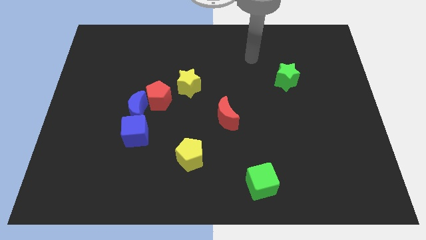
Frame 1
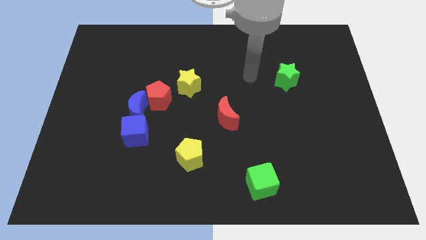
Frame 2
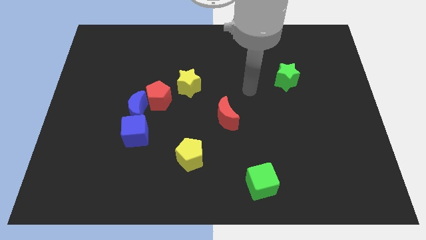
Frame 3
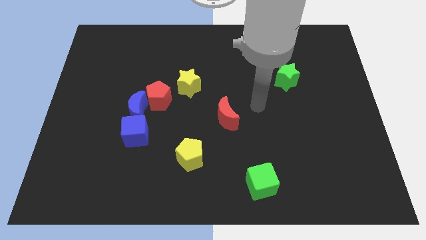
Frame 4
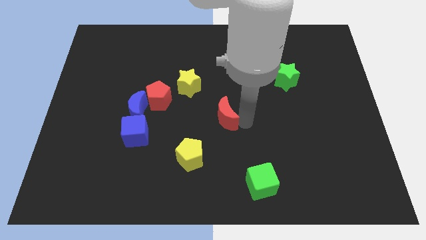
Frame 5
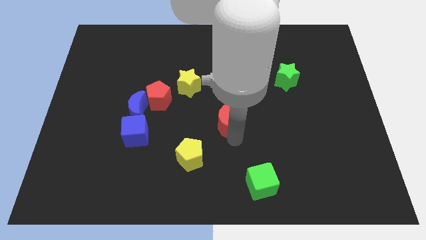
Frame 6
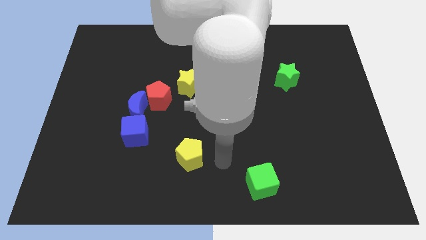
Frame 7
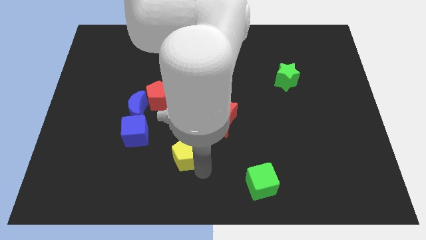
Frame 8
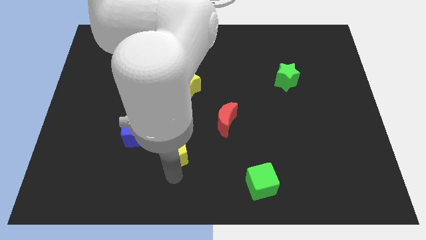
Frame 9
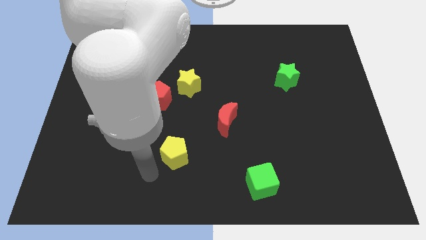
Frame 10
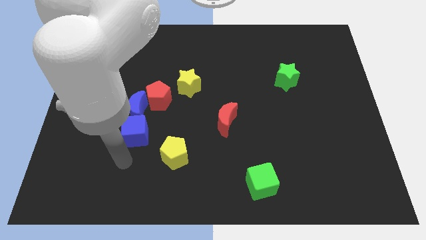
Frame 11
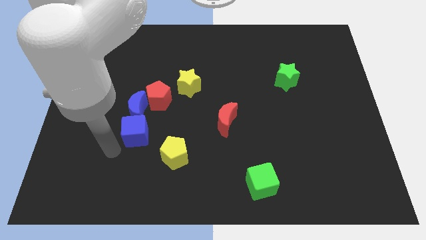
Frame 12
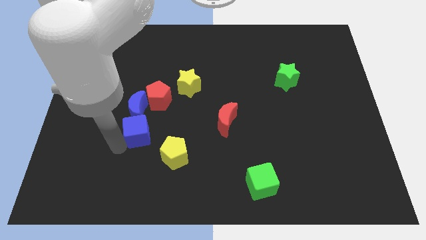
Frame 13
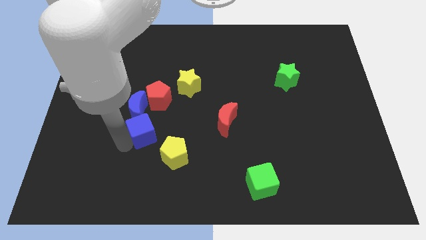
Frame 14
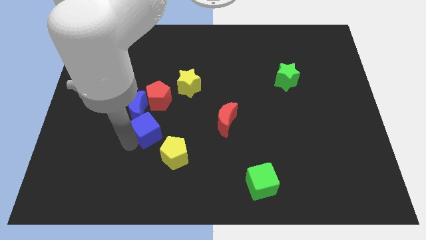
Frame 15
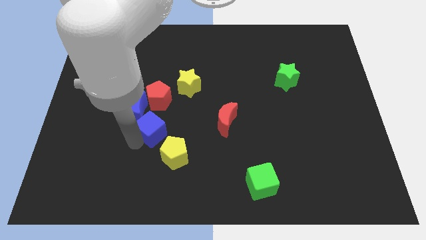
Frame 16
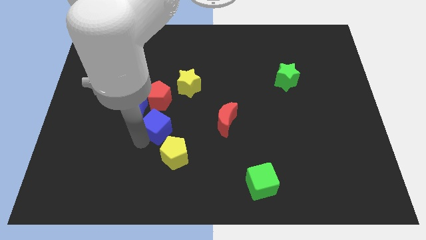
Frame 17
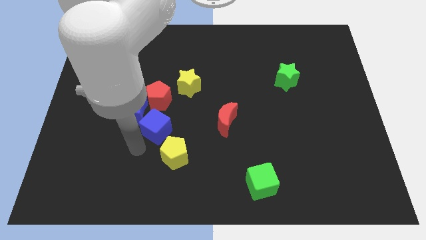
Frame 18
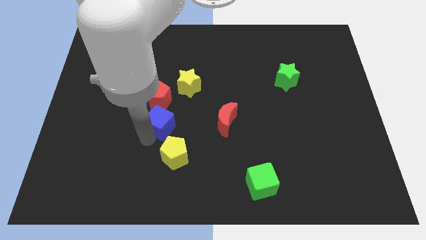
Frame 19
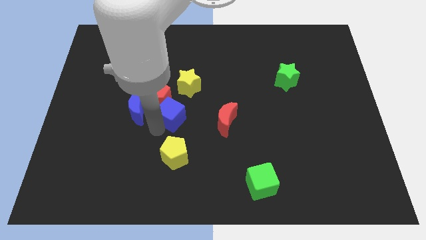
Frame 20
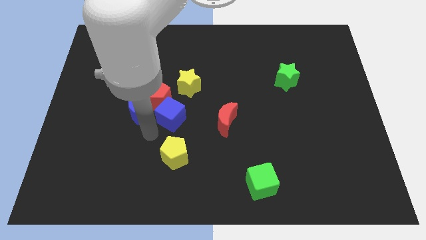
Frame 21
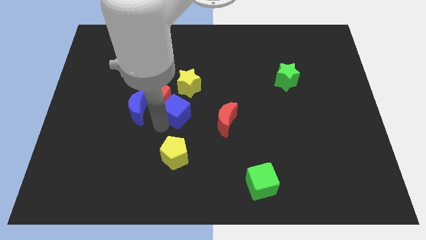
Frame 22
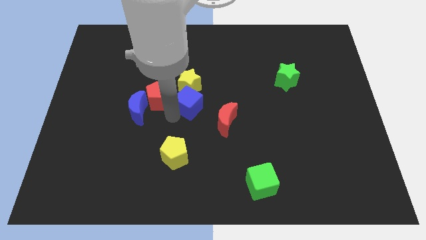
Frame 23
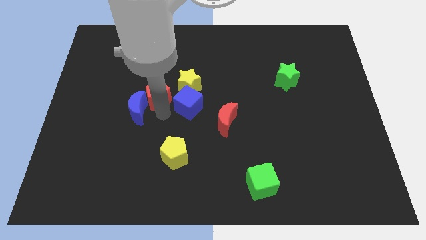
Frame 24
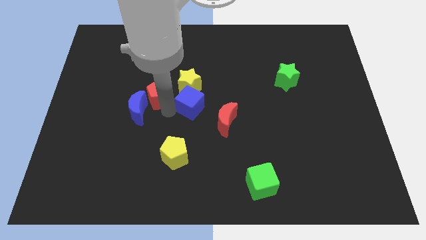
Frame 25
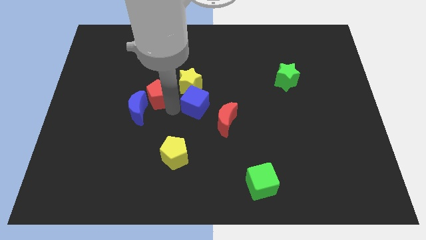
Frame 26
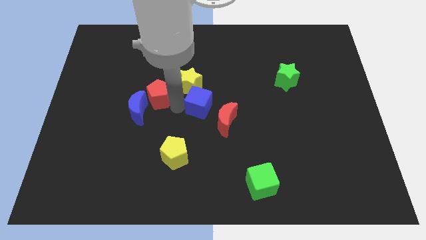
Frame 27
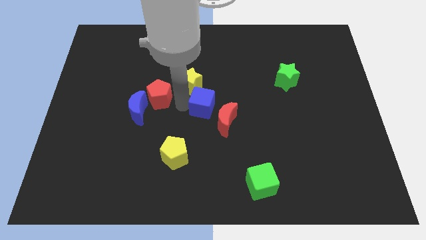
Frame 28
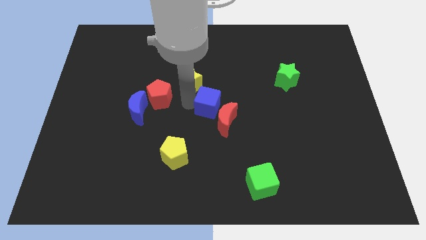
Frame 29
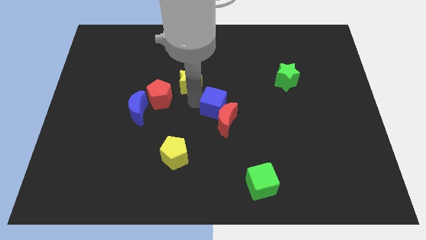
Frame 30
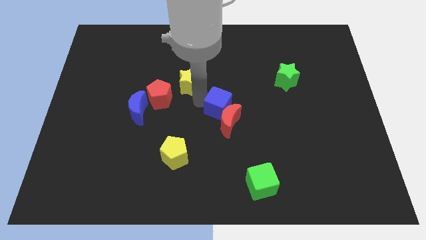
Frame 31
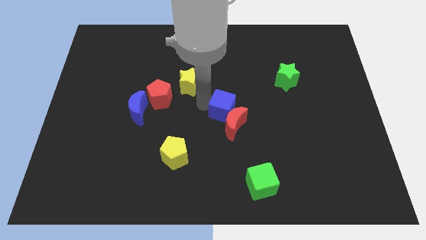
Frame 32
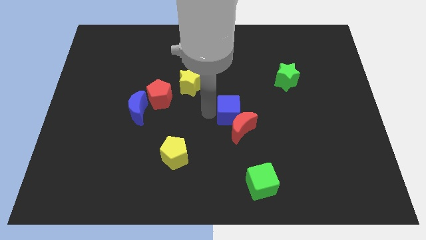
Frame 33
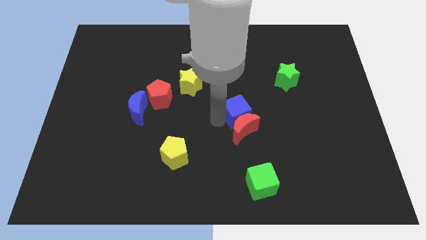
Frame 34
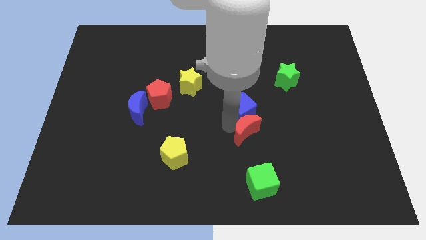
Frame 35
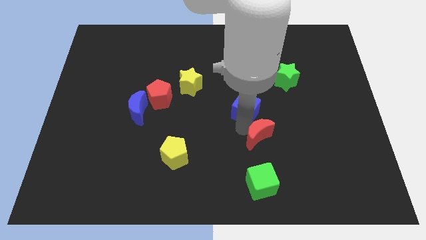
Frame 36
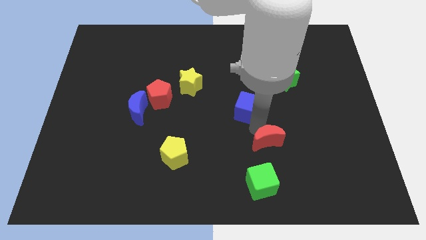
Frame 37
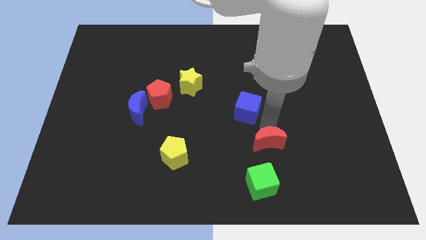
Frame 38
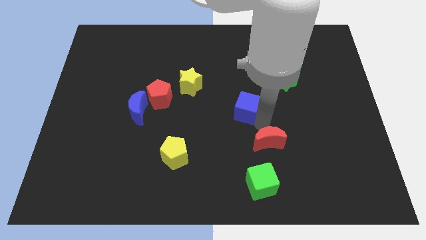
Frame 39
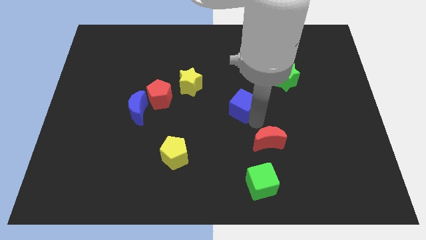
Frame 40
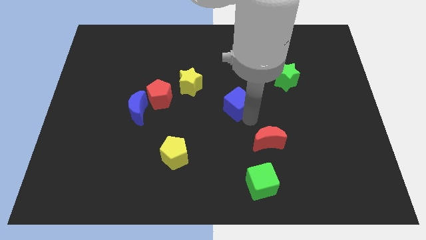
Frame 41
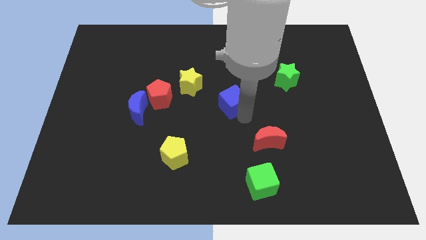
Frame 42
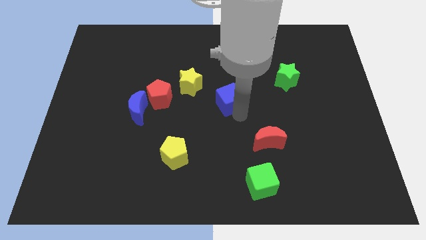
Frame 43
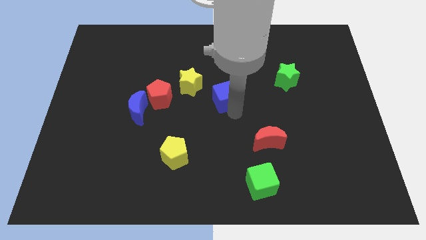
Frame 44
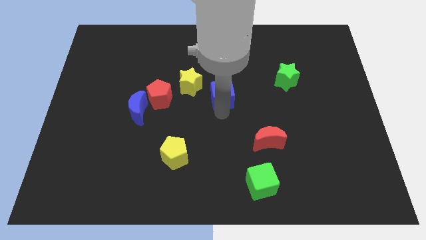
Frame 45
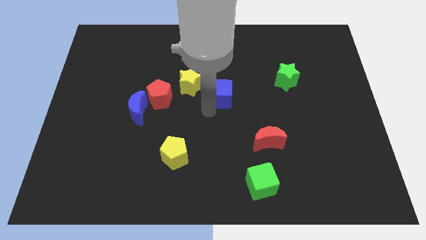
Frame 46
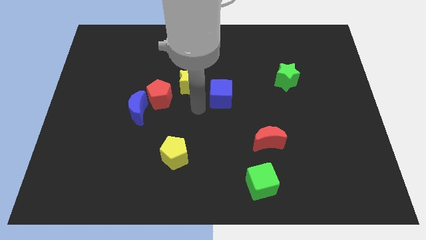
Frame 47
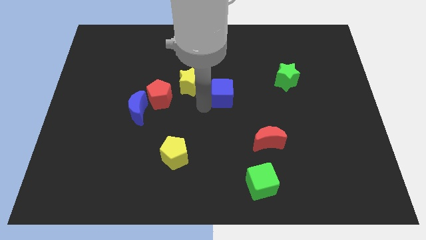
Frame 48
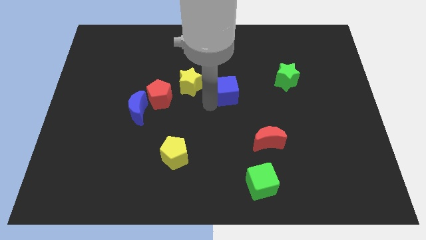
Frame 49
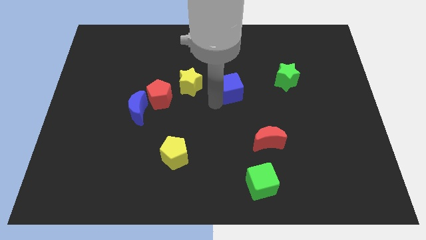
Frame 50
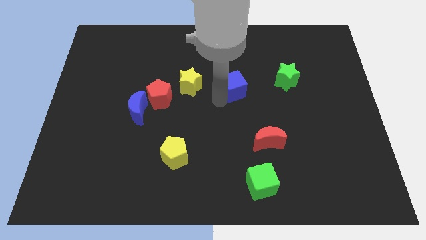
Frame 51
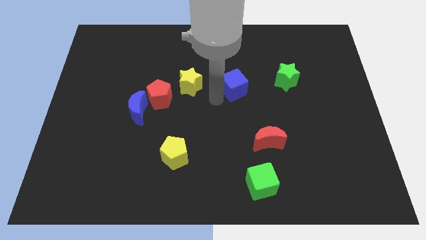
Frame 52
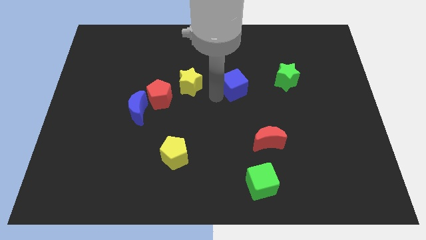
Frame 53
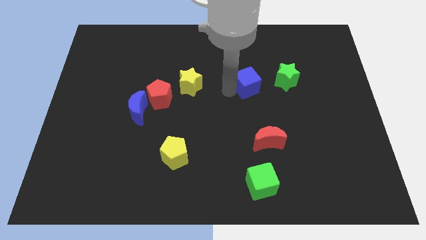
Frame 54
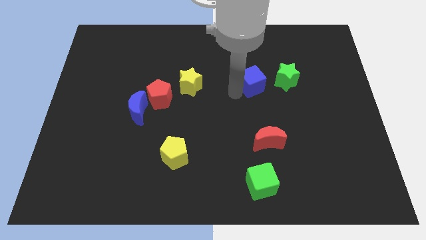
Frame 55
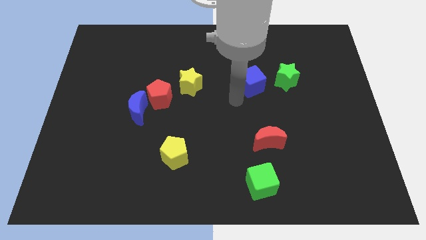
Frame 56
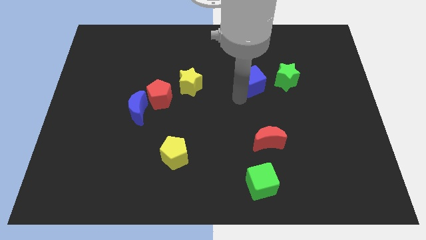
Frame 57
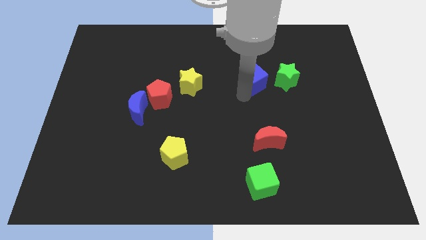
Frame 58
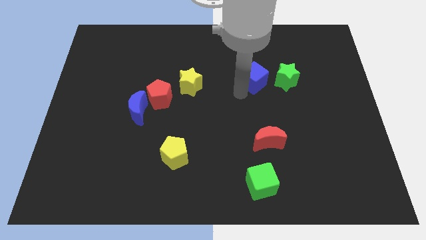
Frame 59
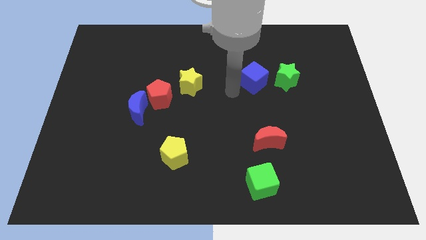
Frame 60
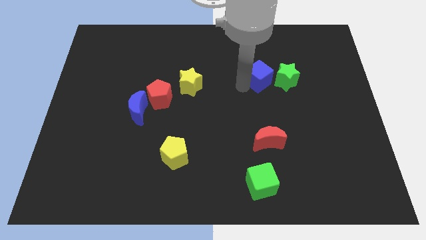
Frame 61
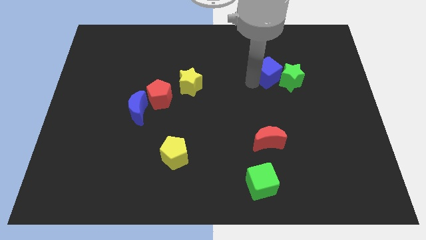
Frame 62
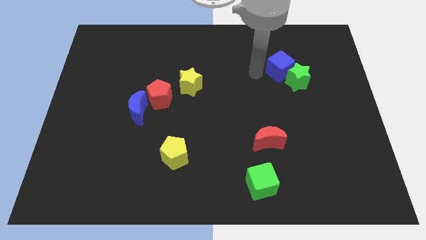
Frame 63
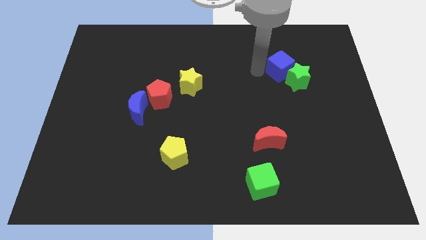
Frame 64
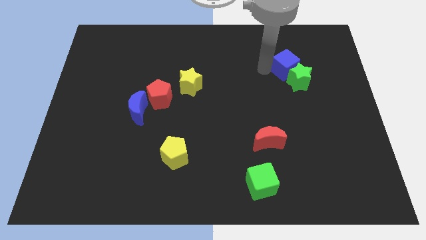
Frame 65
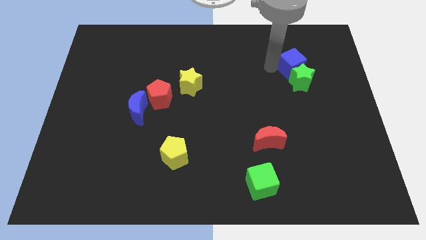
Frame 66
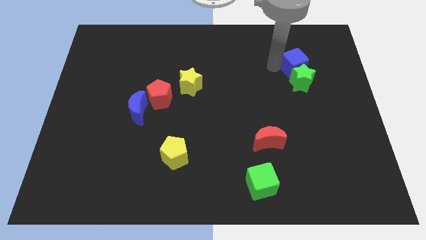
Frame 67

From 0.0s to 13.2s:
slide the blue cube to the top right of the green star
